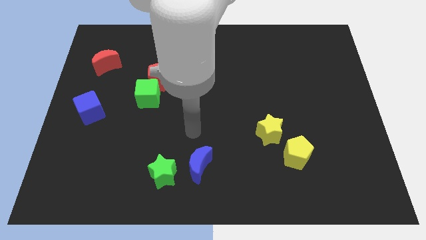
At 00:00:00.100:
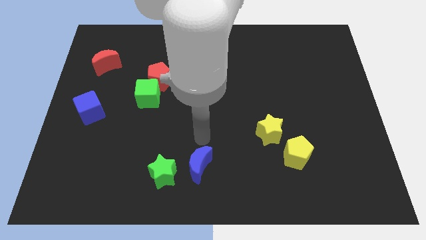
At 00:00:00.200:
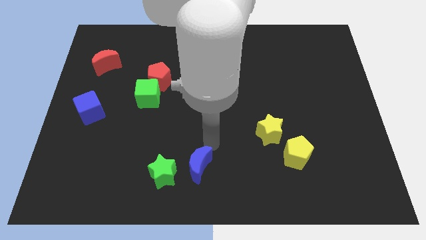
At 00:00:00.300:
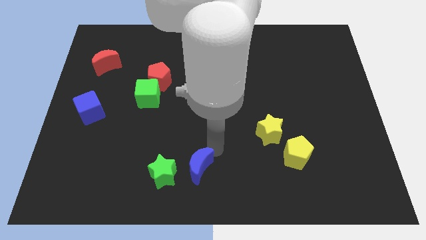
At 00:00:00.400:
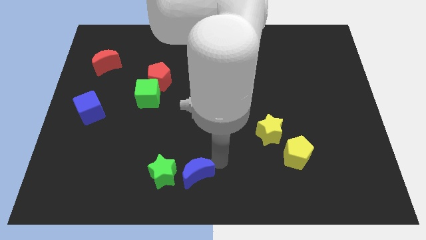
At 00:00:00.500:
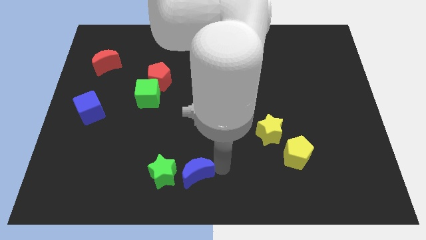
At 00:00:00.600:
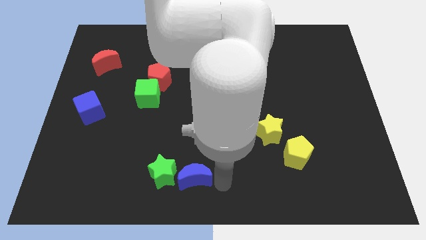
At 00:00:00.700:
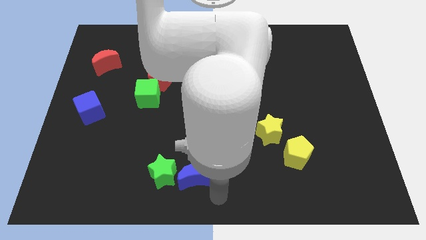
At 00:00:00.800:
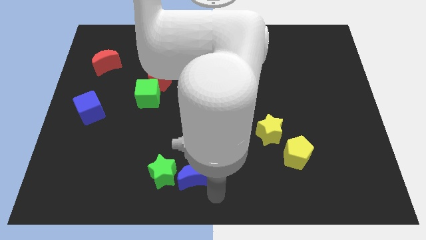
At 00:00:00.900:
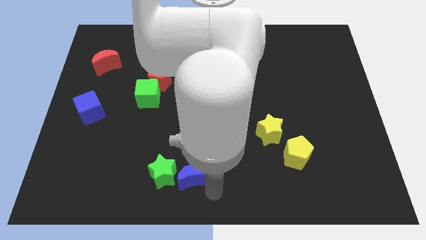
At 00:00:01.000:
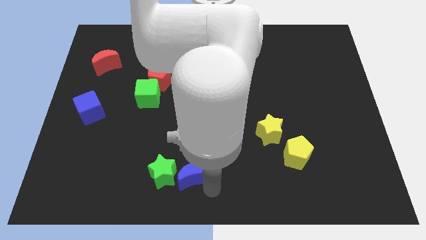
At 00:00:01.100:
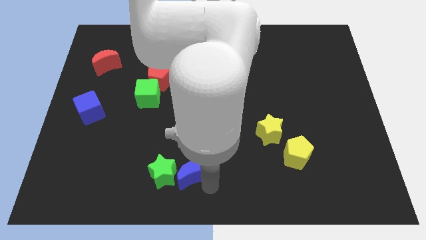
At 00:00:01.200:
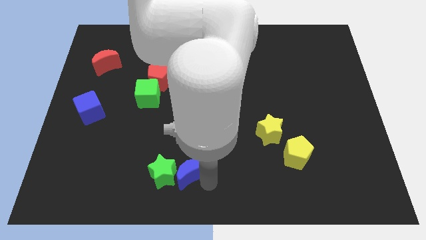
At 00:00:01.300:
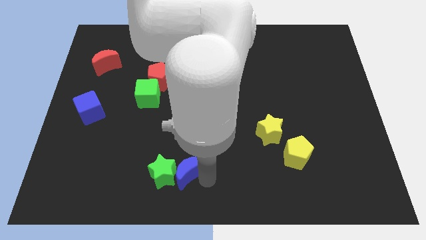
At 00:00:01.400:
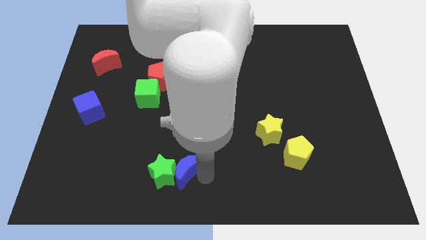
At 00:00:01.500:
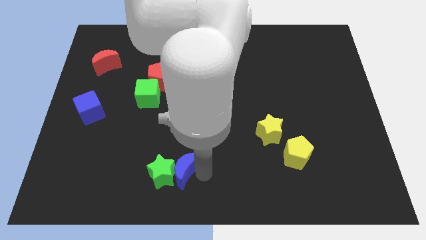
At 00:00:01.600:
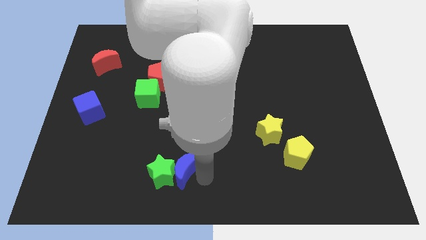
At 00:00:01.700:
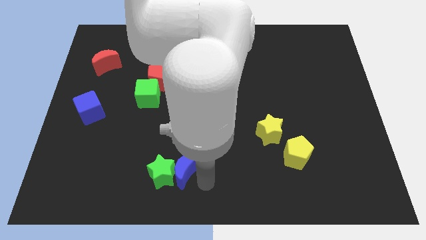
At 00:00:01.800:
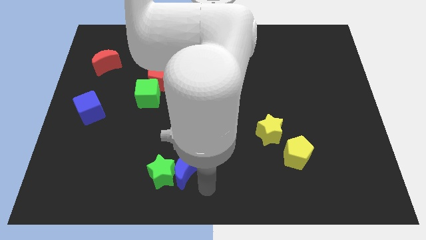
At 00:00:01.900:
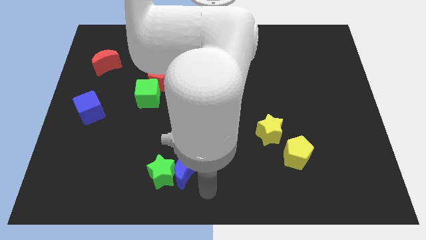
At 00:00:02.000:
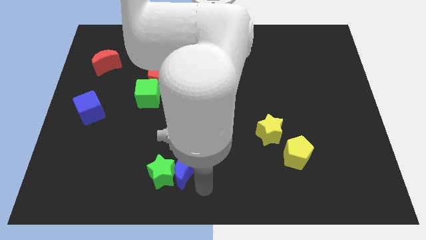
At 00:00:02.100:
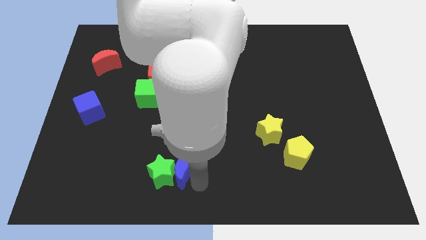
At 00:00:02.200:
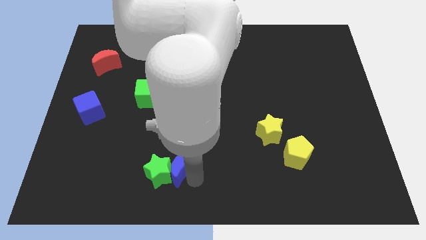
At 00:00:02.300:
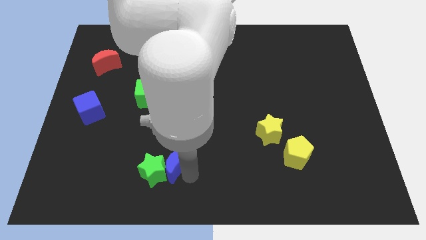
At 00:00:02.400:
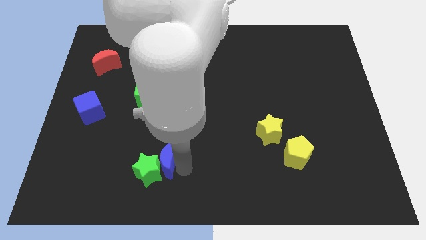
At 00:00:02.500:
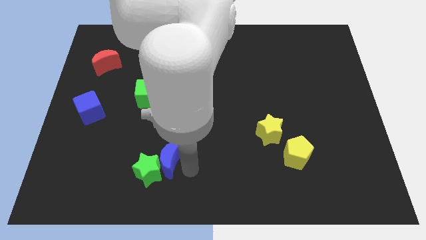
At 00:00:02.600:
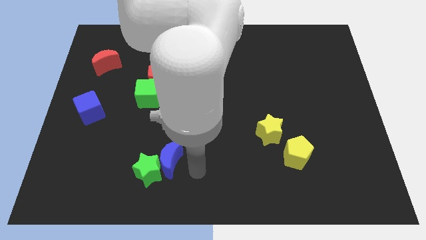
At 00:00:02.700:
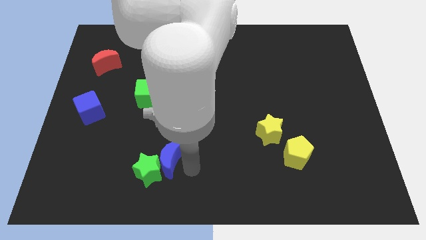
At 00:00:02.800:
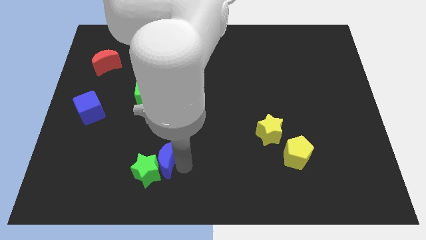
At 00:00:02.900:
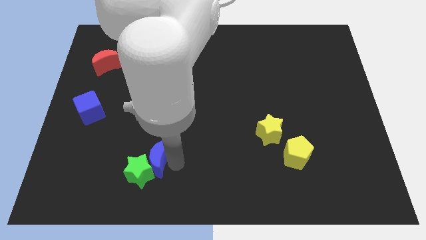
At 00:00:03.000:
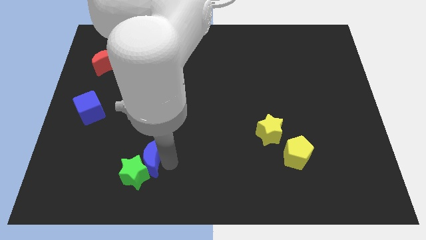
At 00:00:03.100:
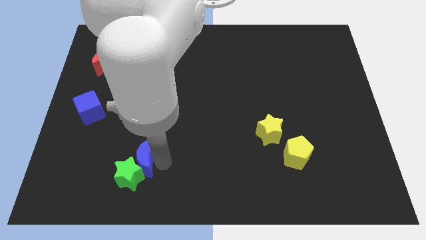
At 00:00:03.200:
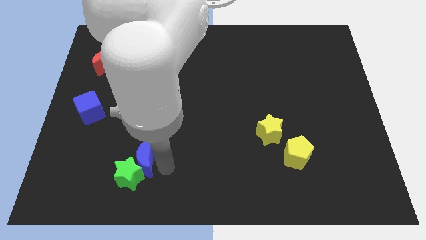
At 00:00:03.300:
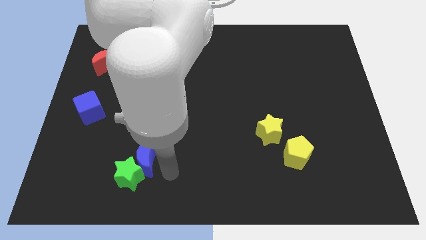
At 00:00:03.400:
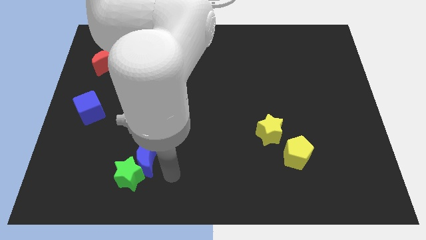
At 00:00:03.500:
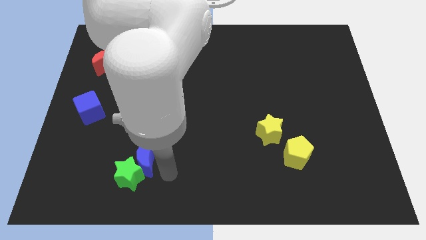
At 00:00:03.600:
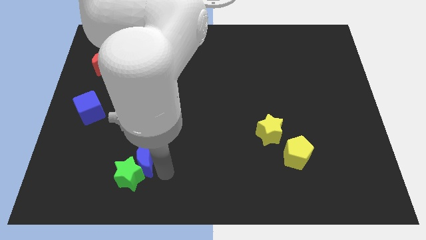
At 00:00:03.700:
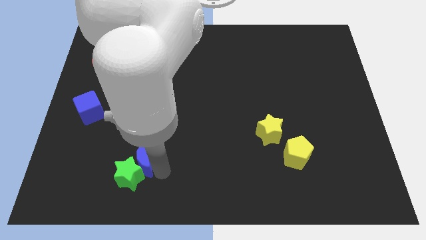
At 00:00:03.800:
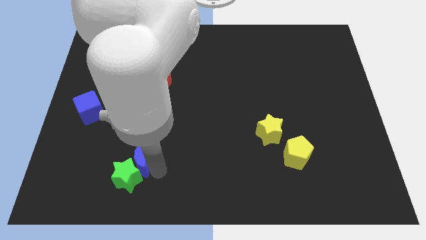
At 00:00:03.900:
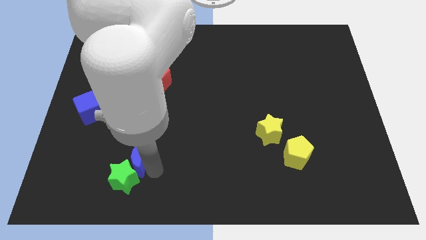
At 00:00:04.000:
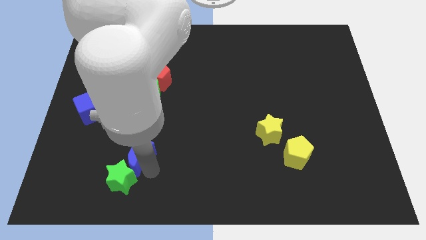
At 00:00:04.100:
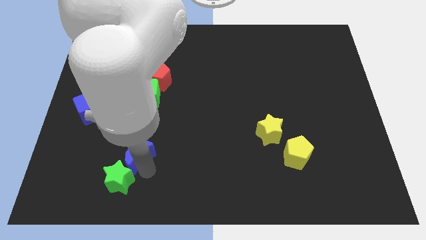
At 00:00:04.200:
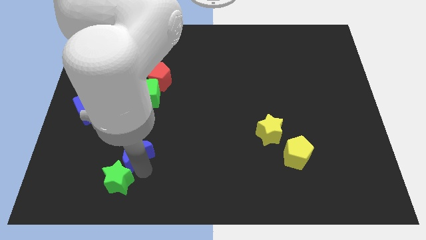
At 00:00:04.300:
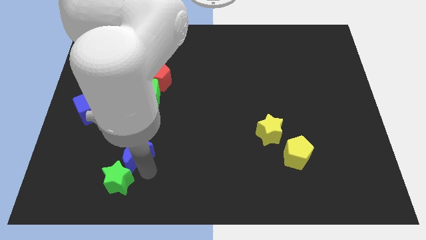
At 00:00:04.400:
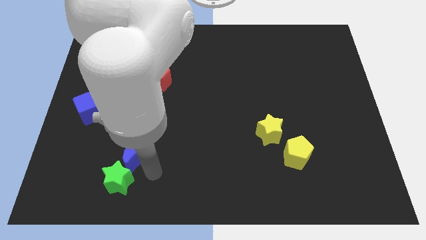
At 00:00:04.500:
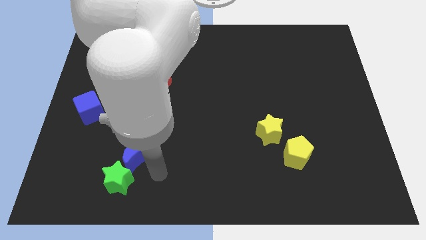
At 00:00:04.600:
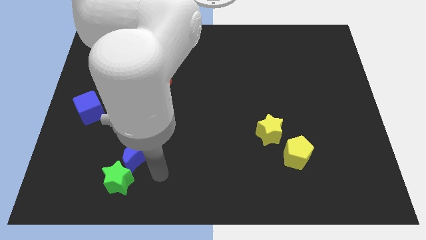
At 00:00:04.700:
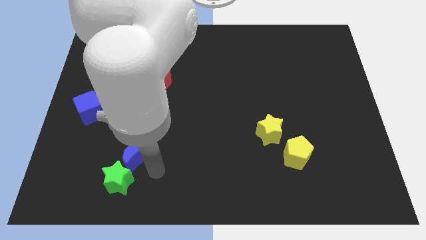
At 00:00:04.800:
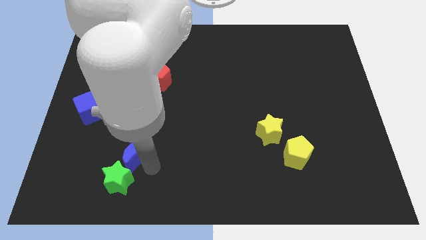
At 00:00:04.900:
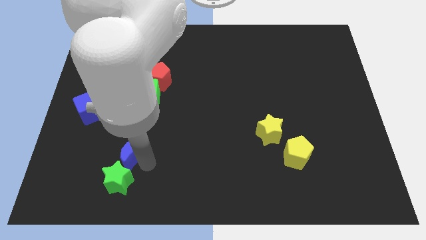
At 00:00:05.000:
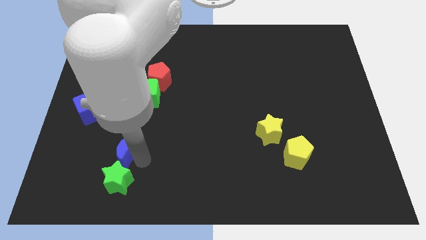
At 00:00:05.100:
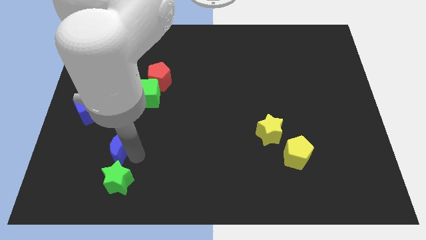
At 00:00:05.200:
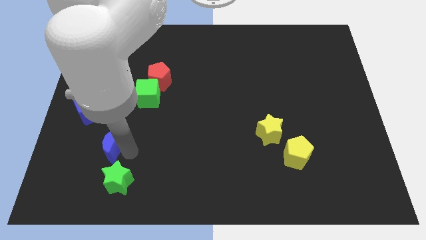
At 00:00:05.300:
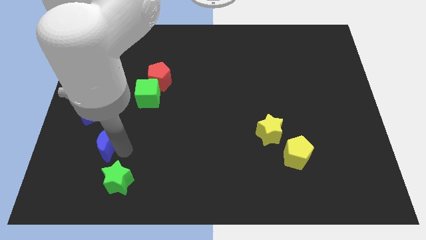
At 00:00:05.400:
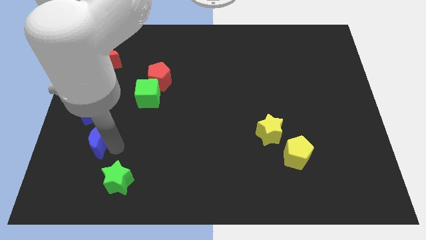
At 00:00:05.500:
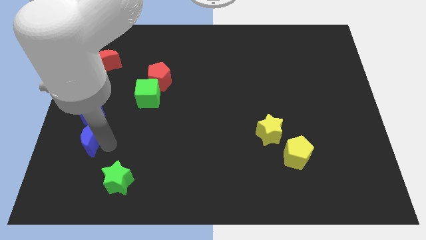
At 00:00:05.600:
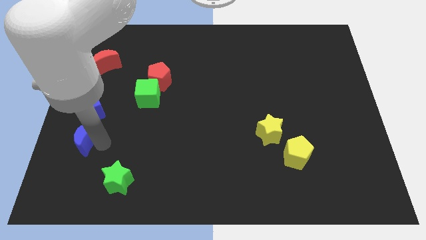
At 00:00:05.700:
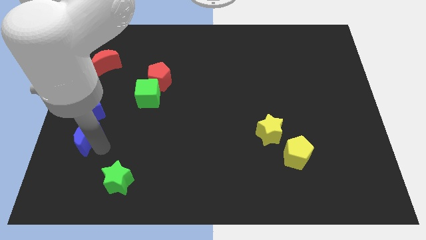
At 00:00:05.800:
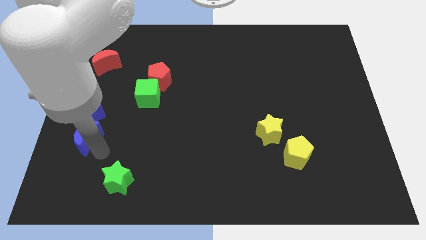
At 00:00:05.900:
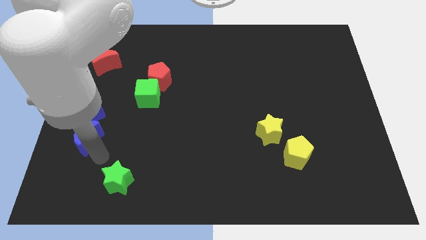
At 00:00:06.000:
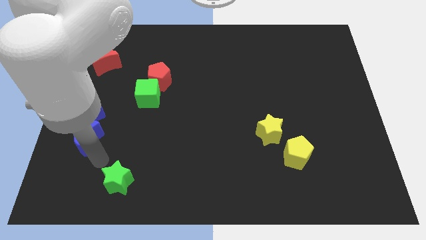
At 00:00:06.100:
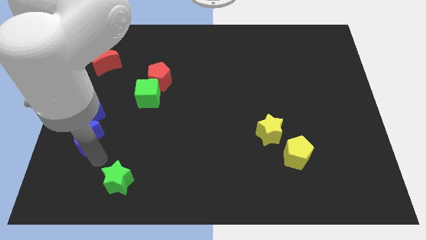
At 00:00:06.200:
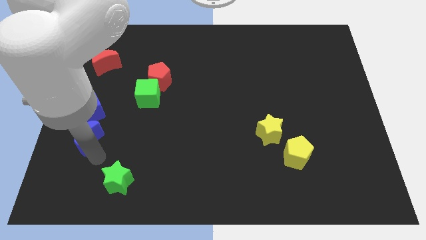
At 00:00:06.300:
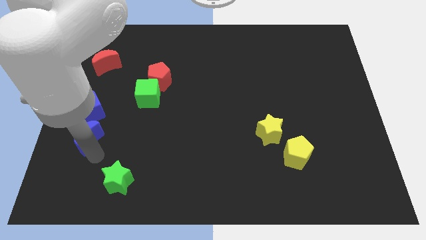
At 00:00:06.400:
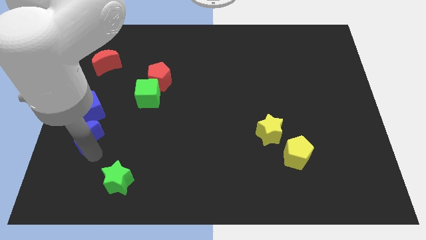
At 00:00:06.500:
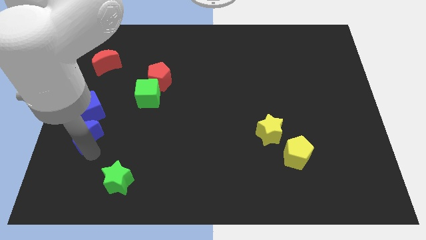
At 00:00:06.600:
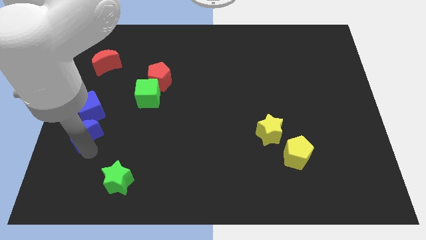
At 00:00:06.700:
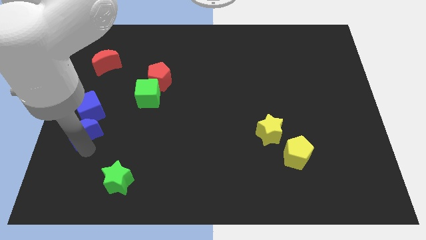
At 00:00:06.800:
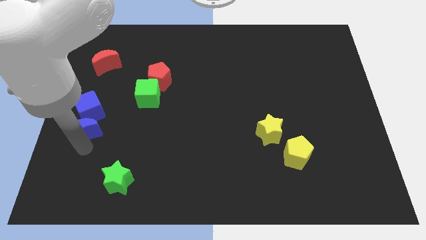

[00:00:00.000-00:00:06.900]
slide the blue moon to the left side of the board

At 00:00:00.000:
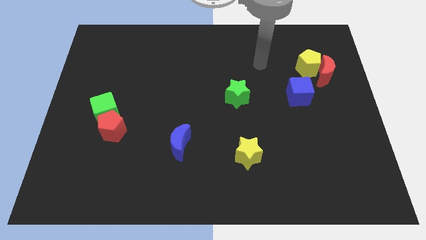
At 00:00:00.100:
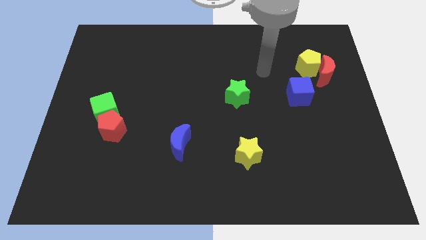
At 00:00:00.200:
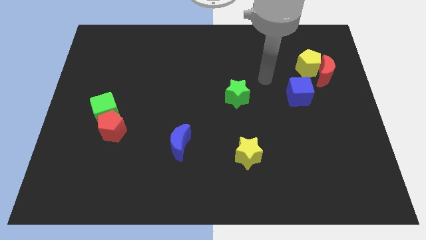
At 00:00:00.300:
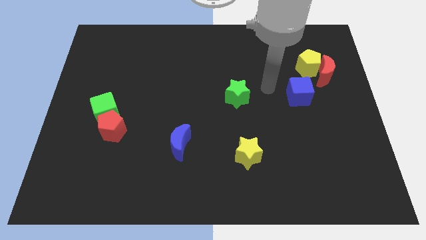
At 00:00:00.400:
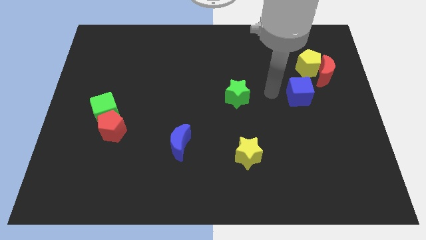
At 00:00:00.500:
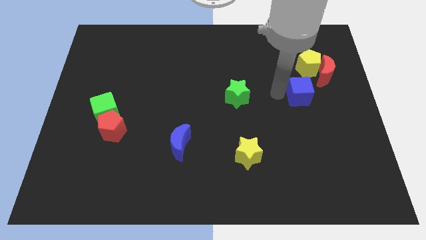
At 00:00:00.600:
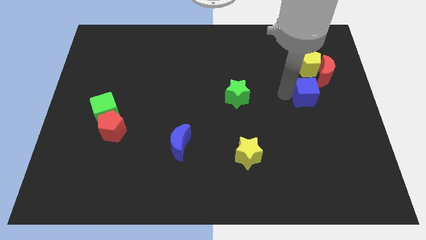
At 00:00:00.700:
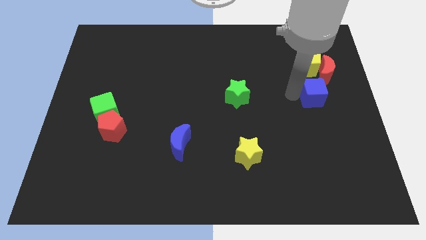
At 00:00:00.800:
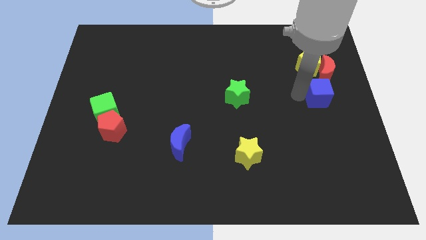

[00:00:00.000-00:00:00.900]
put the blue cube to the right side of the board
